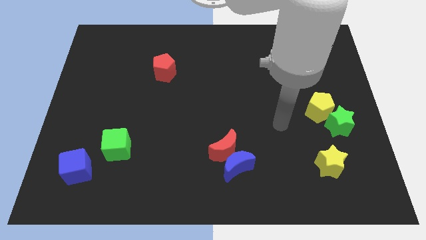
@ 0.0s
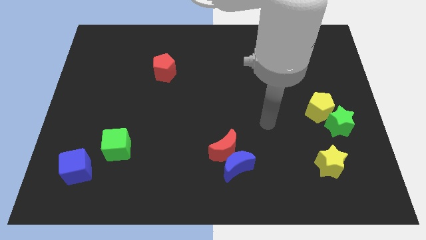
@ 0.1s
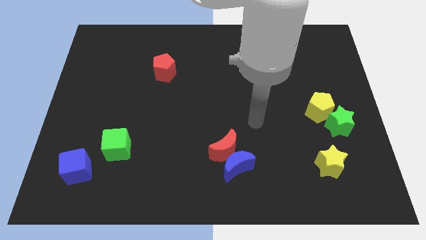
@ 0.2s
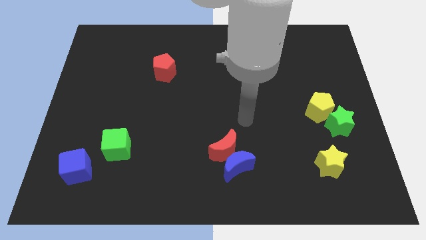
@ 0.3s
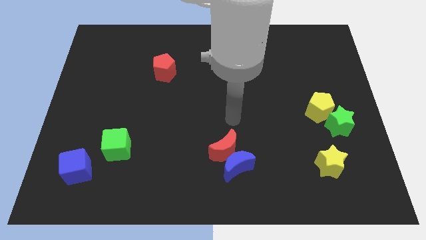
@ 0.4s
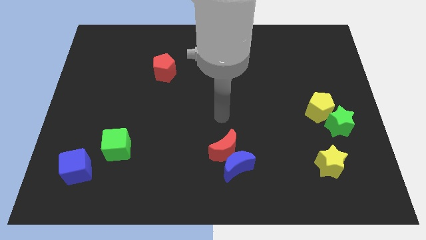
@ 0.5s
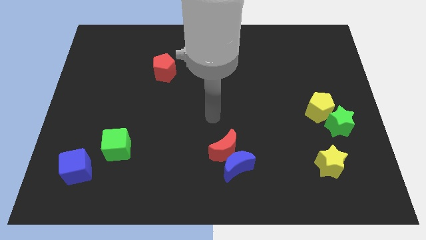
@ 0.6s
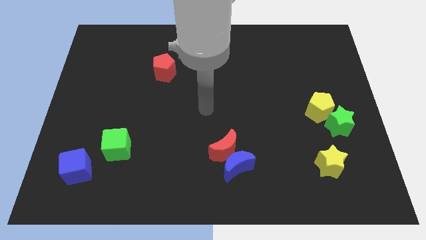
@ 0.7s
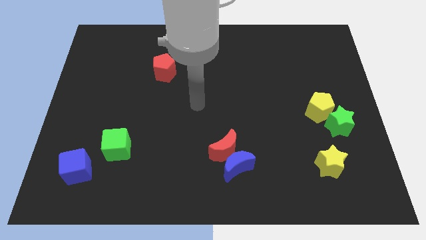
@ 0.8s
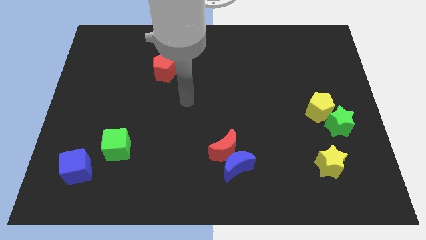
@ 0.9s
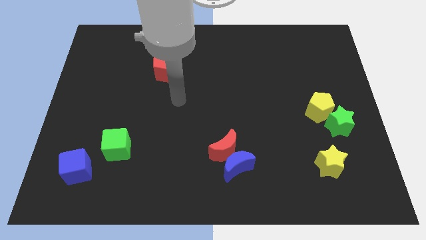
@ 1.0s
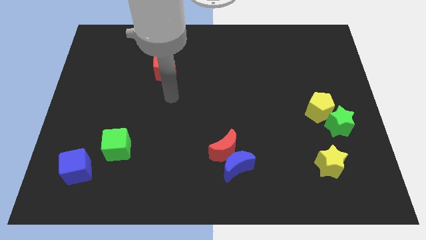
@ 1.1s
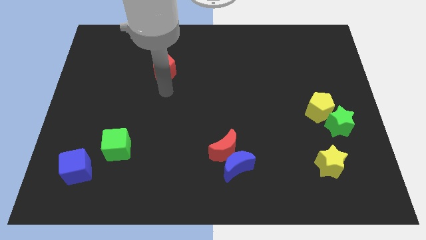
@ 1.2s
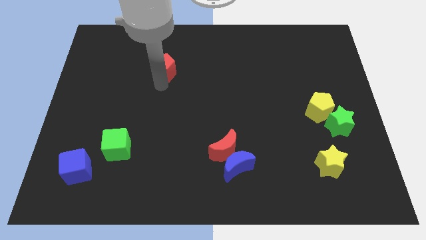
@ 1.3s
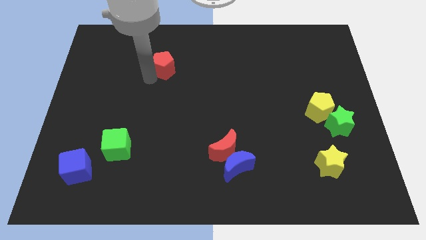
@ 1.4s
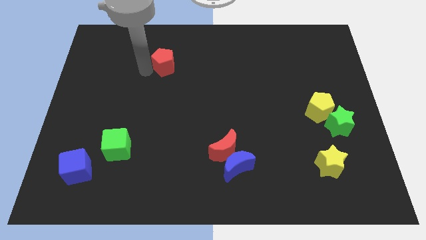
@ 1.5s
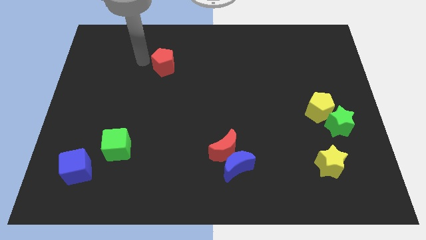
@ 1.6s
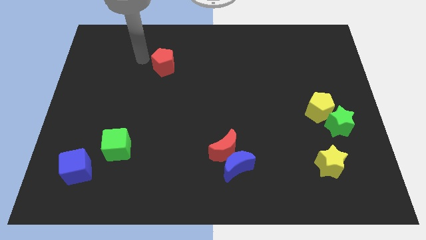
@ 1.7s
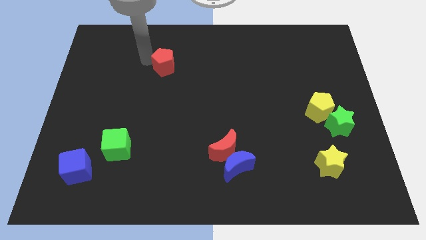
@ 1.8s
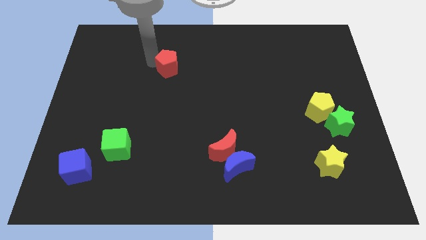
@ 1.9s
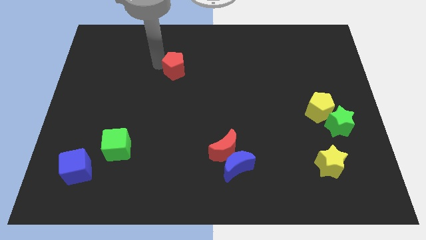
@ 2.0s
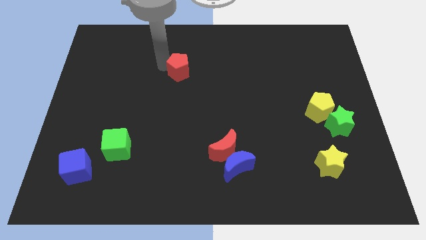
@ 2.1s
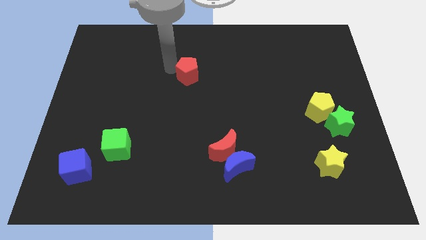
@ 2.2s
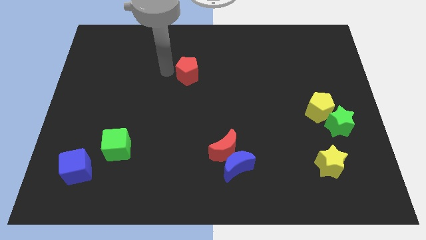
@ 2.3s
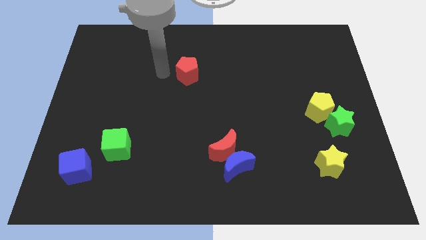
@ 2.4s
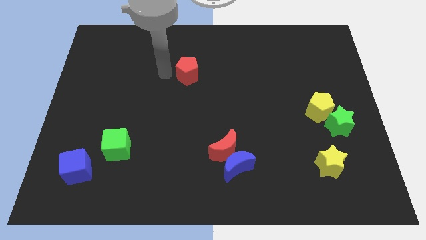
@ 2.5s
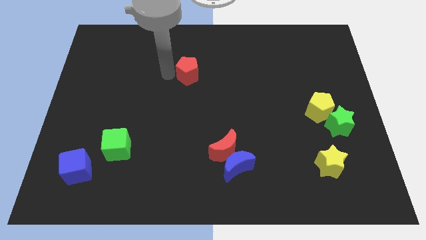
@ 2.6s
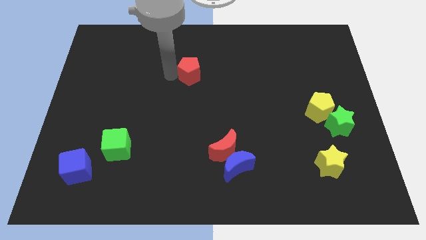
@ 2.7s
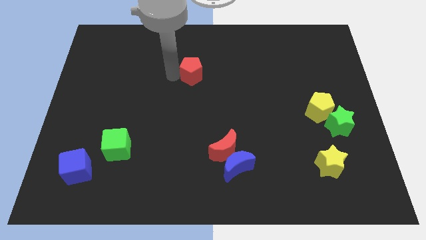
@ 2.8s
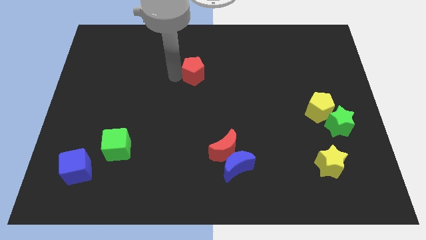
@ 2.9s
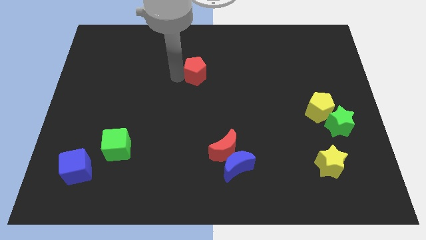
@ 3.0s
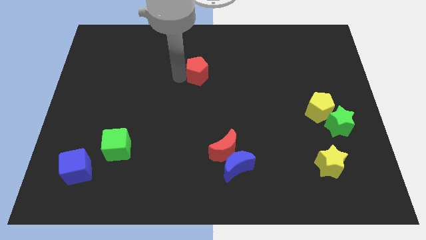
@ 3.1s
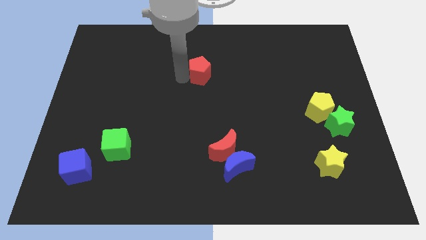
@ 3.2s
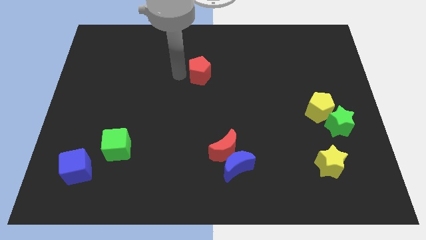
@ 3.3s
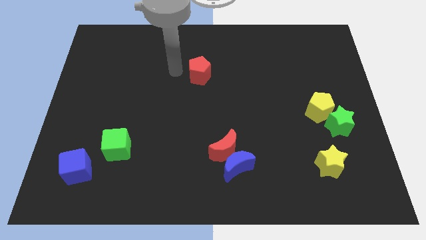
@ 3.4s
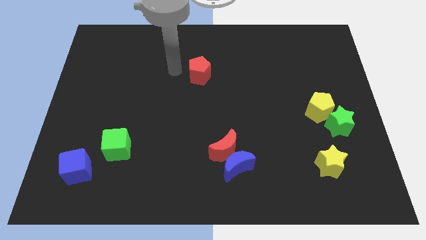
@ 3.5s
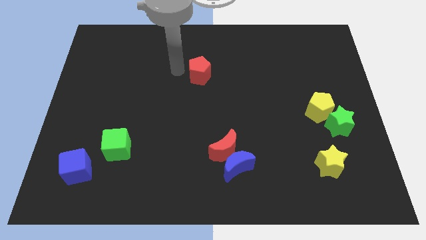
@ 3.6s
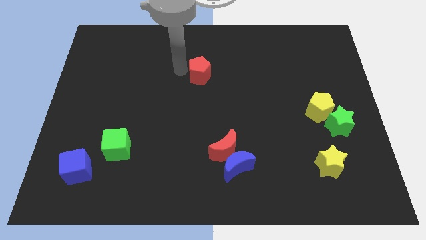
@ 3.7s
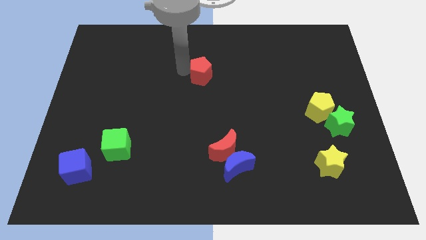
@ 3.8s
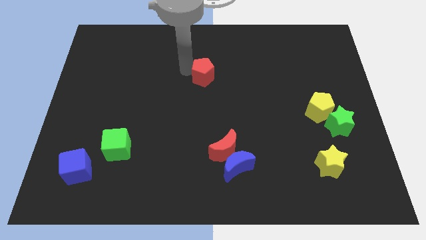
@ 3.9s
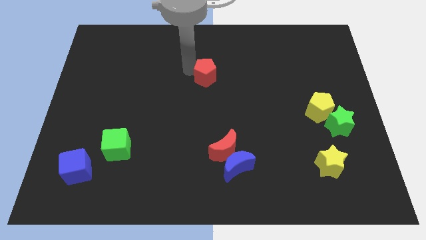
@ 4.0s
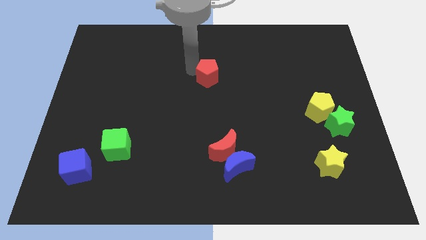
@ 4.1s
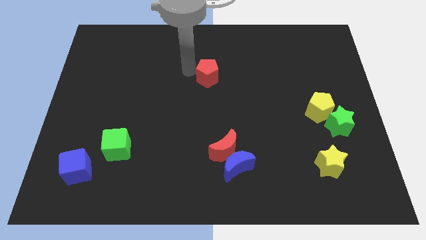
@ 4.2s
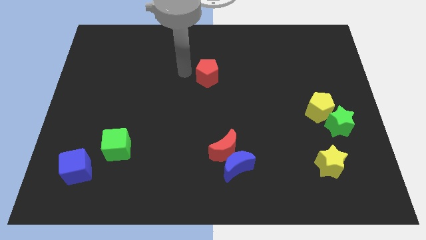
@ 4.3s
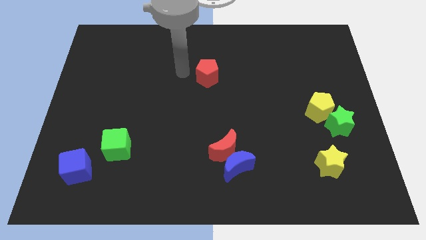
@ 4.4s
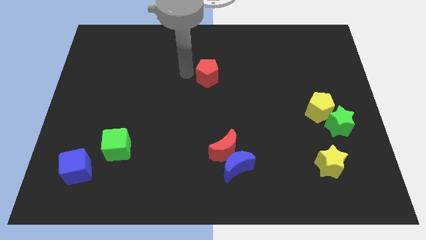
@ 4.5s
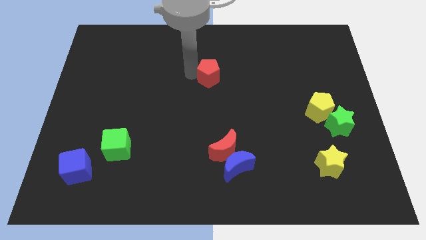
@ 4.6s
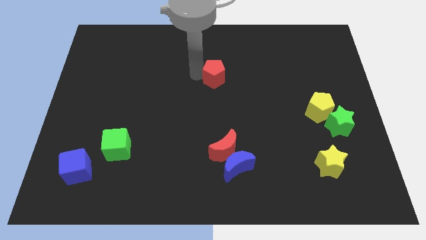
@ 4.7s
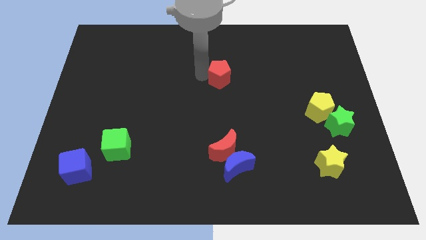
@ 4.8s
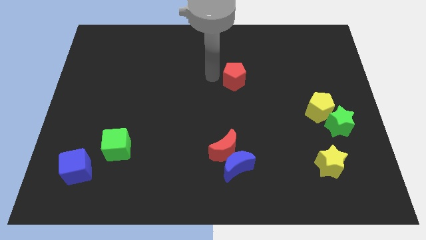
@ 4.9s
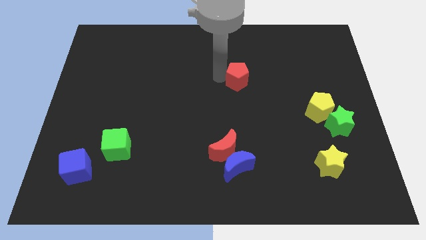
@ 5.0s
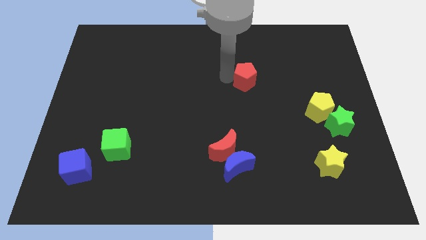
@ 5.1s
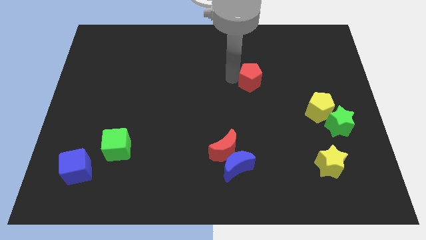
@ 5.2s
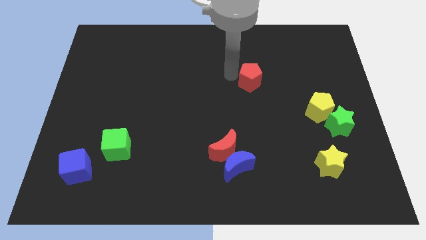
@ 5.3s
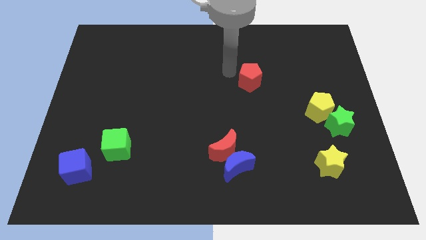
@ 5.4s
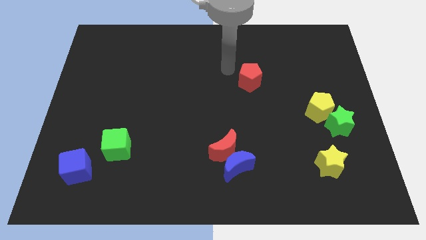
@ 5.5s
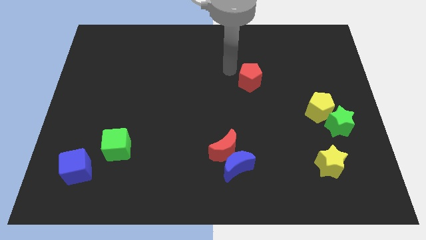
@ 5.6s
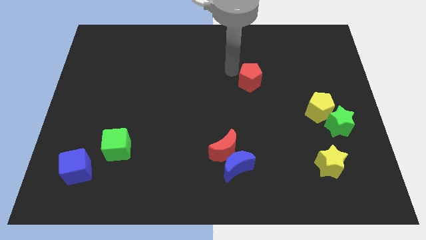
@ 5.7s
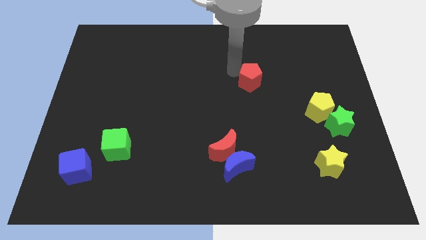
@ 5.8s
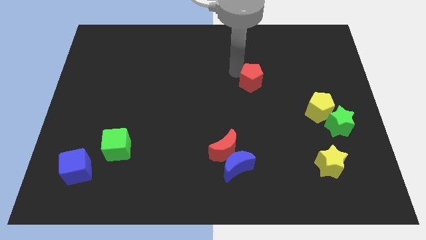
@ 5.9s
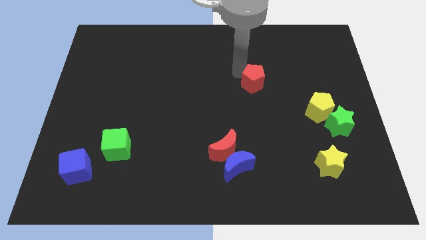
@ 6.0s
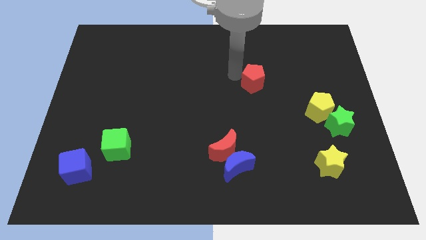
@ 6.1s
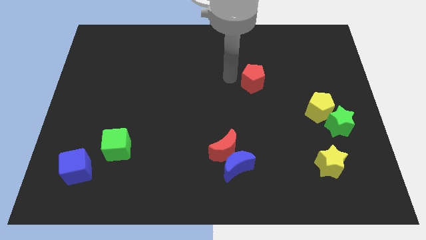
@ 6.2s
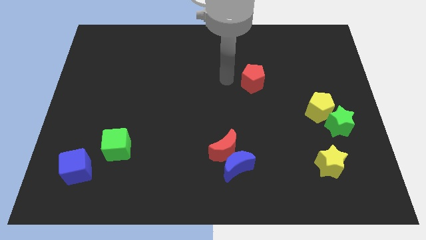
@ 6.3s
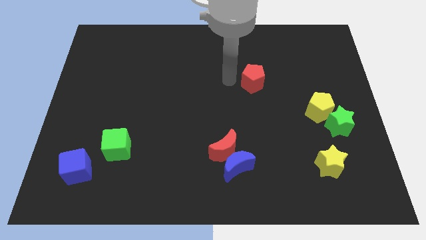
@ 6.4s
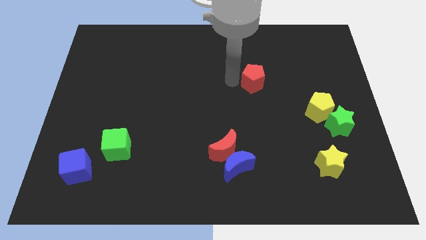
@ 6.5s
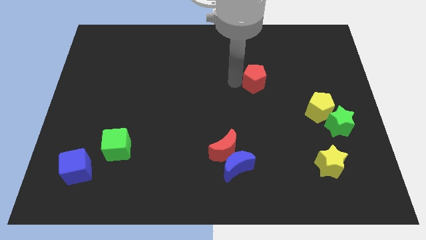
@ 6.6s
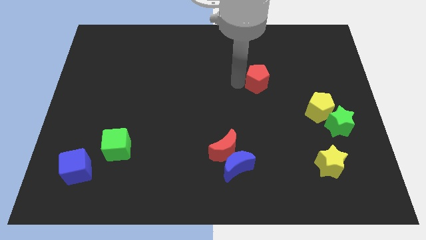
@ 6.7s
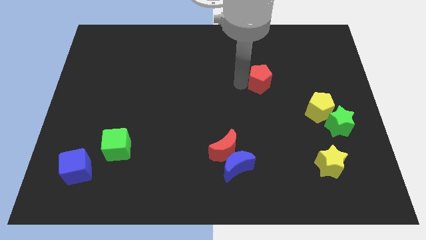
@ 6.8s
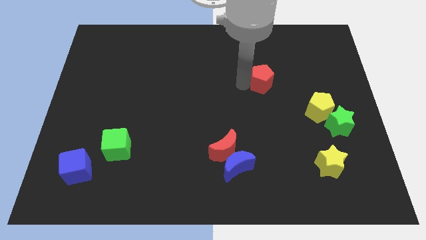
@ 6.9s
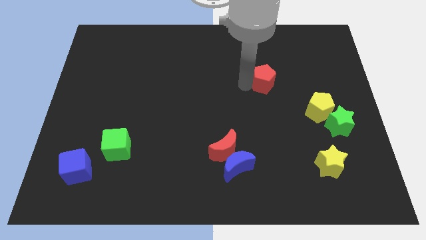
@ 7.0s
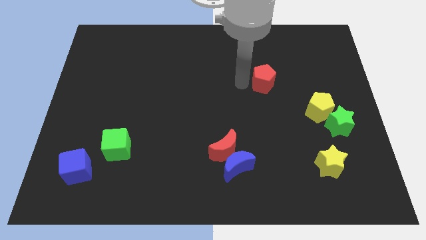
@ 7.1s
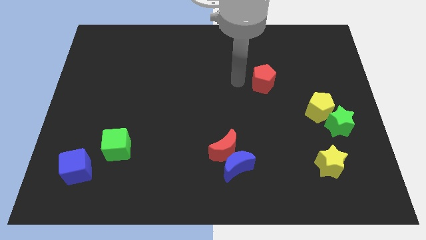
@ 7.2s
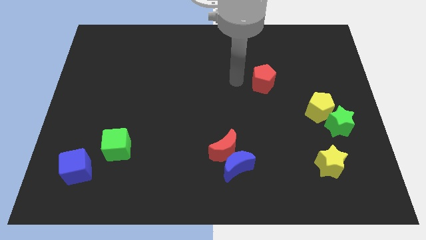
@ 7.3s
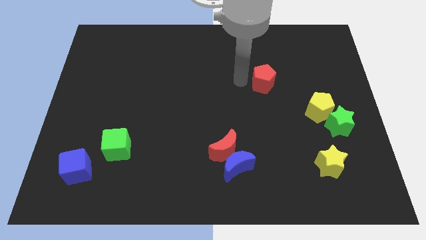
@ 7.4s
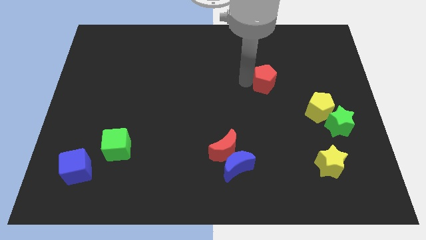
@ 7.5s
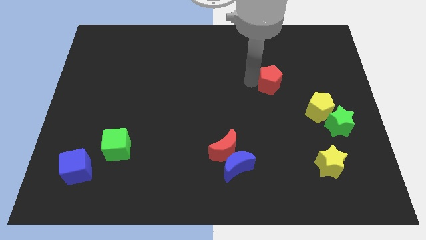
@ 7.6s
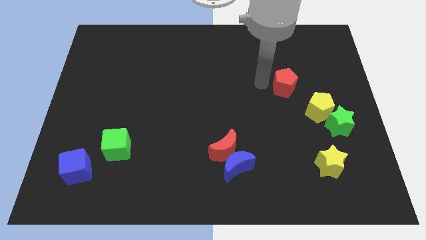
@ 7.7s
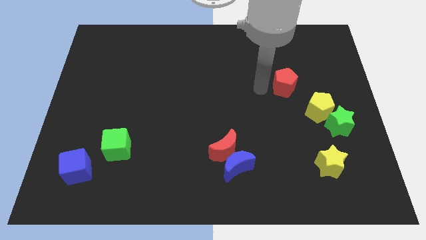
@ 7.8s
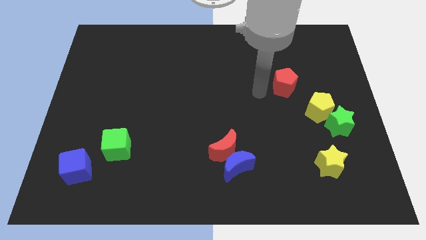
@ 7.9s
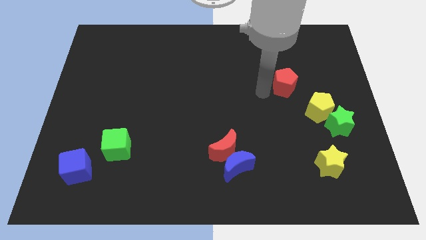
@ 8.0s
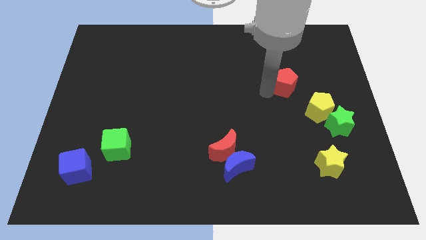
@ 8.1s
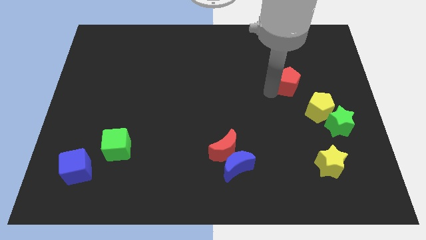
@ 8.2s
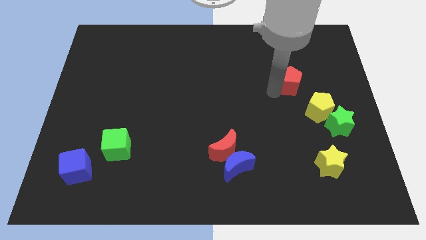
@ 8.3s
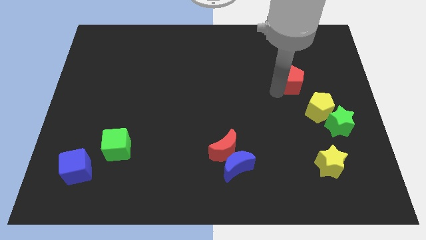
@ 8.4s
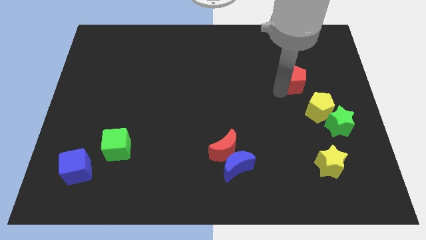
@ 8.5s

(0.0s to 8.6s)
push the red pentagon to the top side of the yellow pentagon
